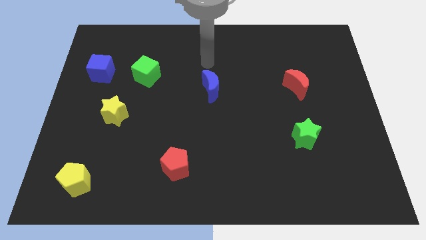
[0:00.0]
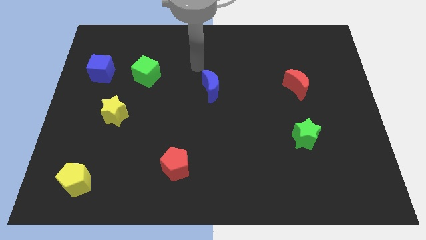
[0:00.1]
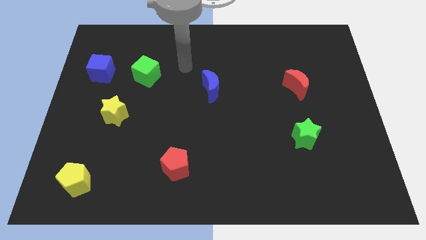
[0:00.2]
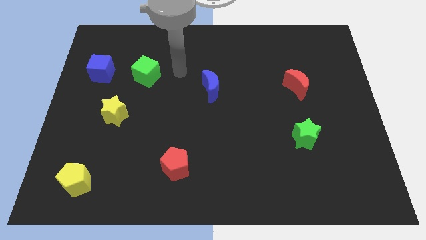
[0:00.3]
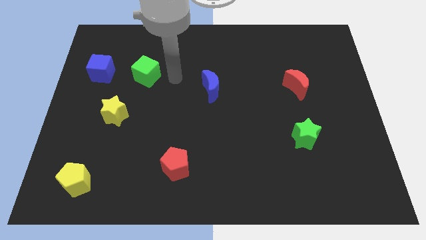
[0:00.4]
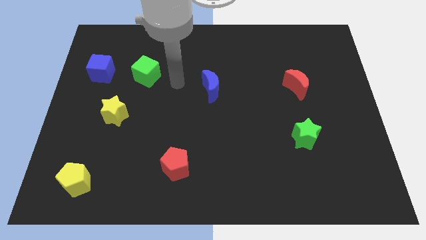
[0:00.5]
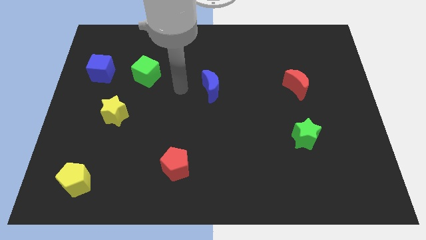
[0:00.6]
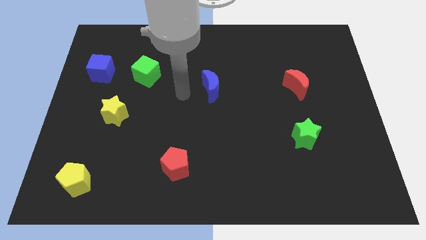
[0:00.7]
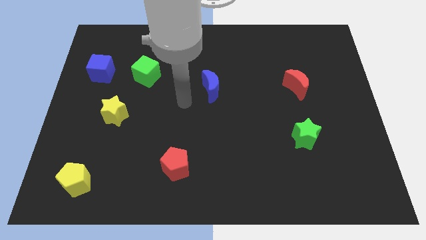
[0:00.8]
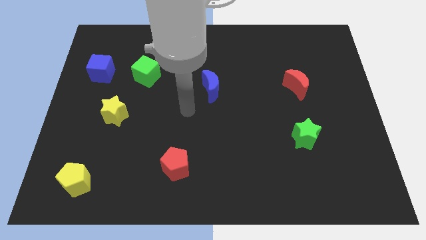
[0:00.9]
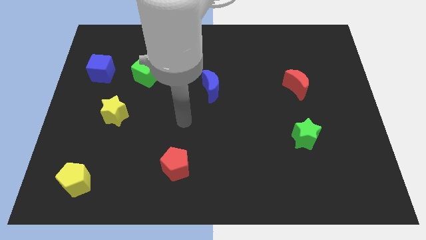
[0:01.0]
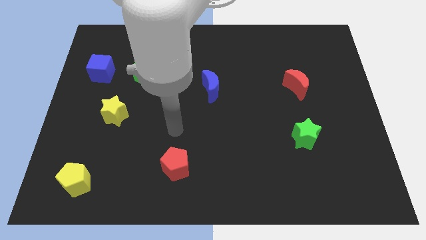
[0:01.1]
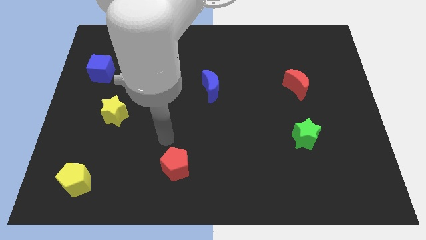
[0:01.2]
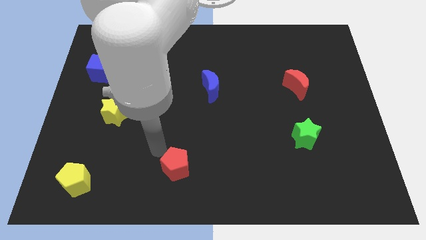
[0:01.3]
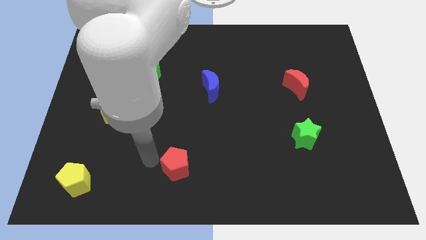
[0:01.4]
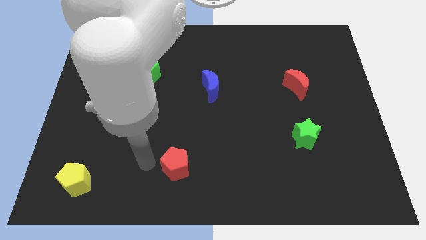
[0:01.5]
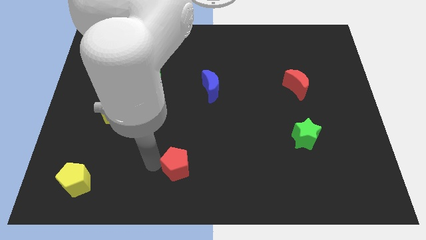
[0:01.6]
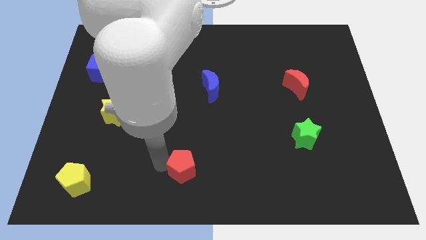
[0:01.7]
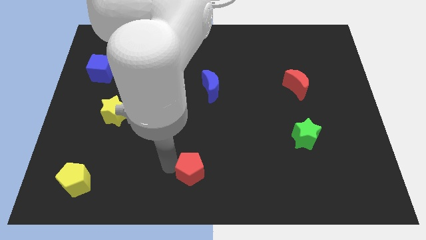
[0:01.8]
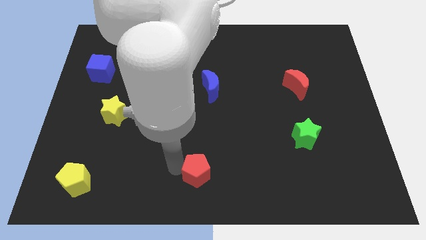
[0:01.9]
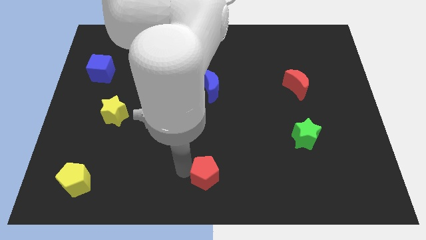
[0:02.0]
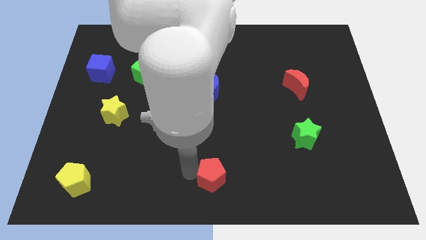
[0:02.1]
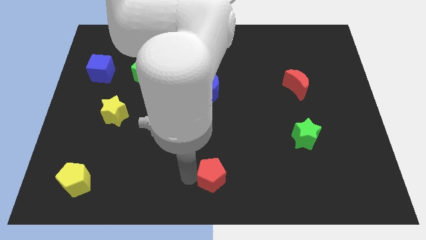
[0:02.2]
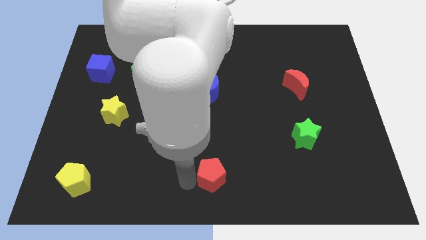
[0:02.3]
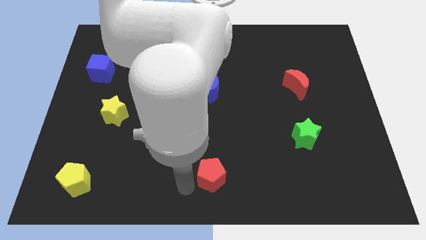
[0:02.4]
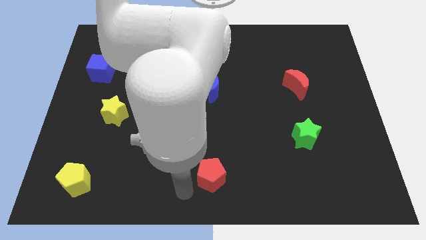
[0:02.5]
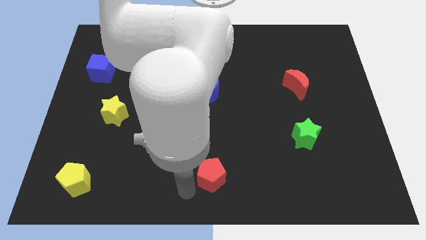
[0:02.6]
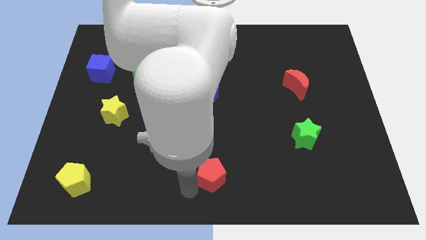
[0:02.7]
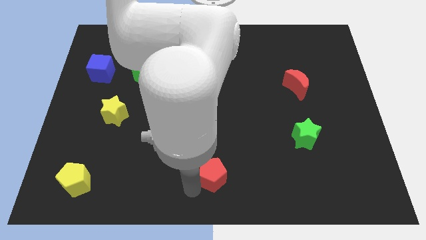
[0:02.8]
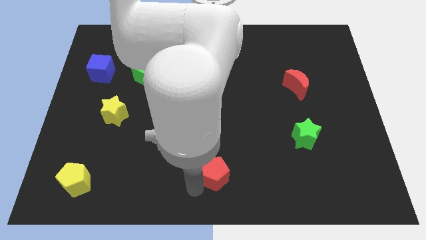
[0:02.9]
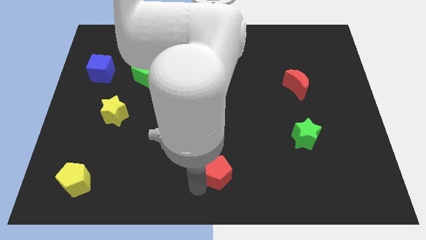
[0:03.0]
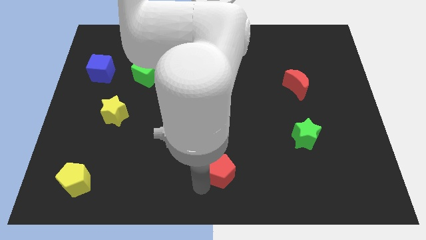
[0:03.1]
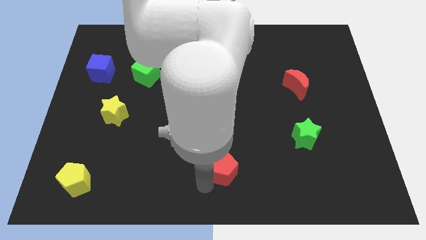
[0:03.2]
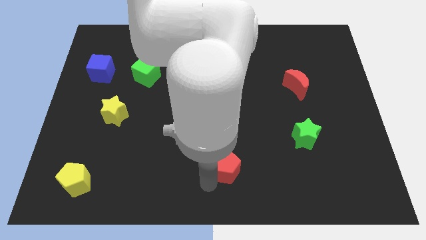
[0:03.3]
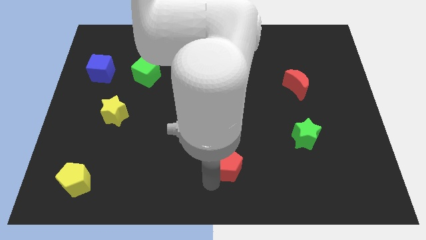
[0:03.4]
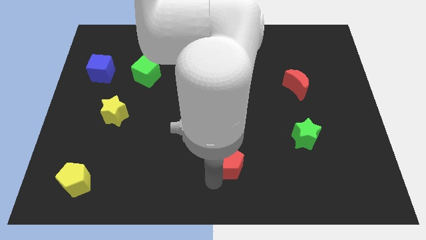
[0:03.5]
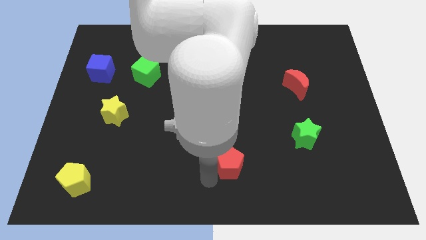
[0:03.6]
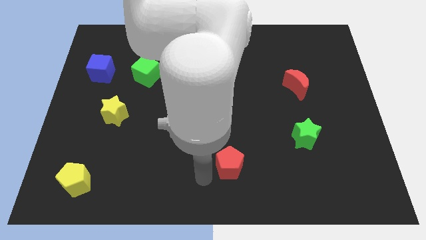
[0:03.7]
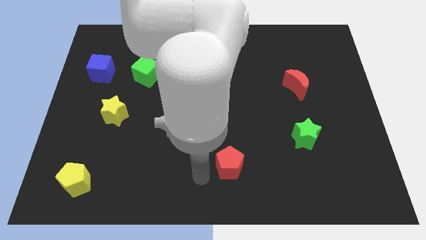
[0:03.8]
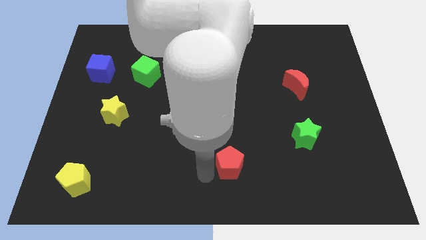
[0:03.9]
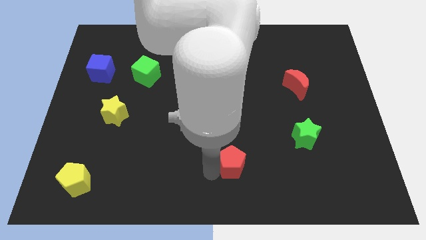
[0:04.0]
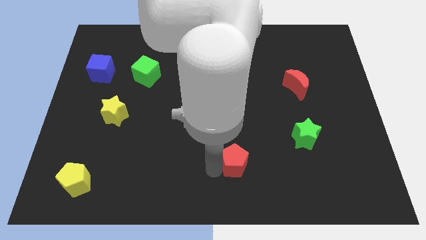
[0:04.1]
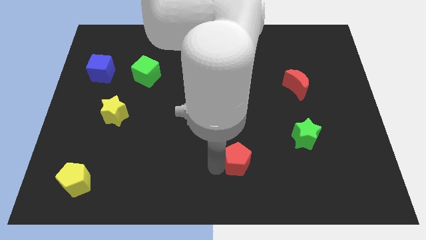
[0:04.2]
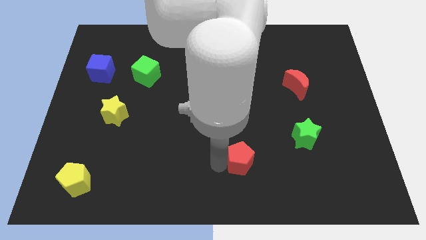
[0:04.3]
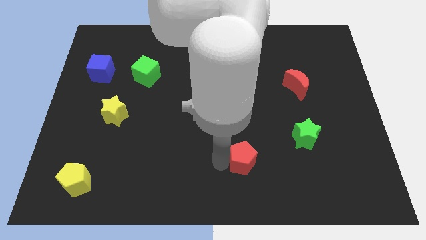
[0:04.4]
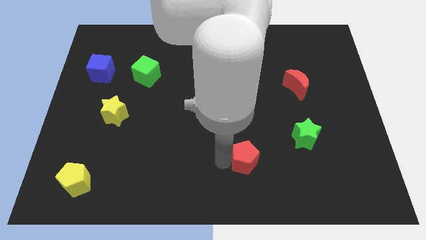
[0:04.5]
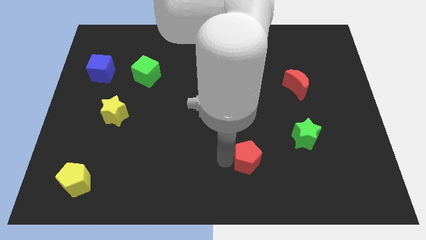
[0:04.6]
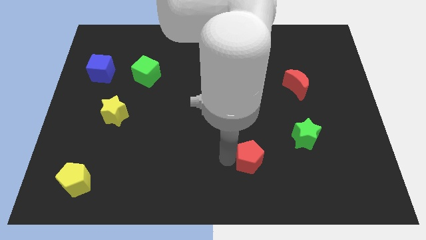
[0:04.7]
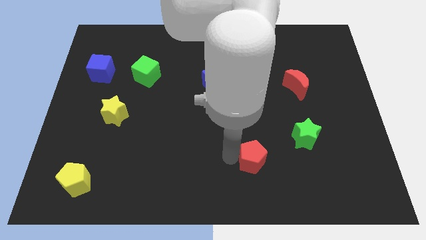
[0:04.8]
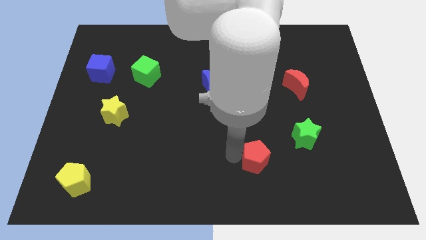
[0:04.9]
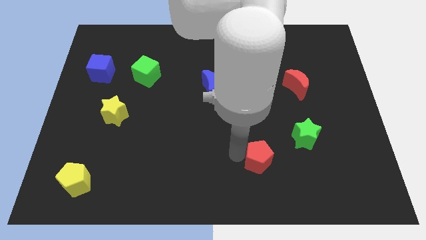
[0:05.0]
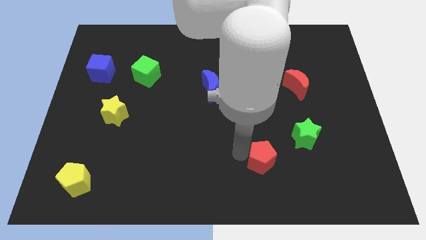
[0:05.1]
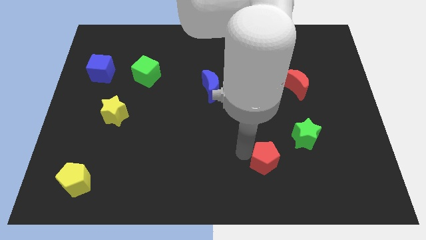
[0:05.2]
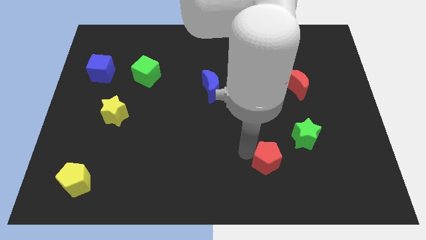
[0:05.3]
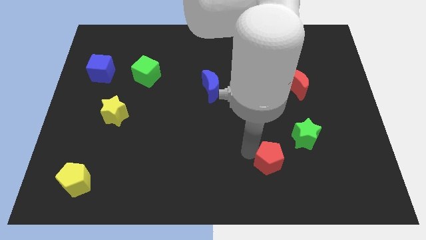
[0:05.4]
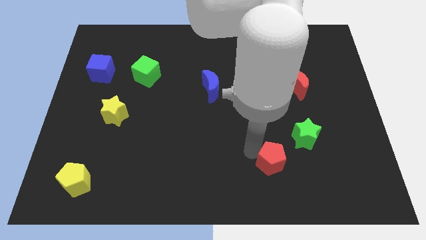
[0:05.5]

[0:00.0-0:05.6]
push the red pentagon to the right

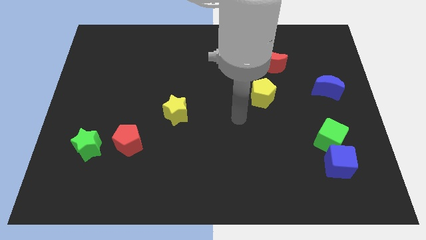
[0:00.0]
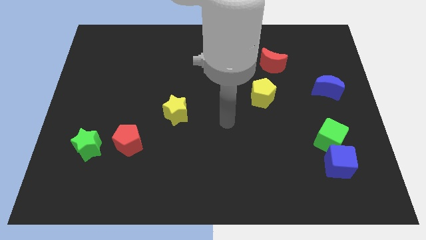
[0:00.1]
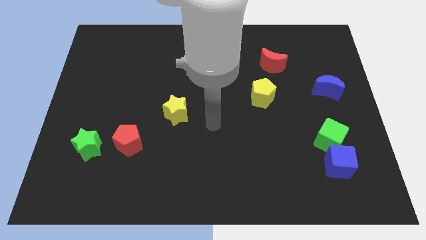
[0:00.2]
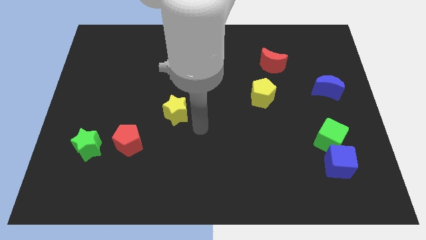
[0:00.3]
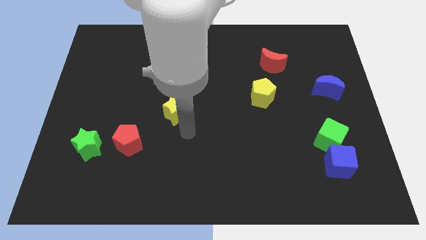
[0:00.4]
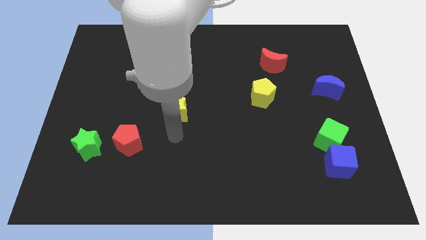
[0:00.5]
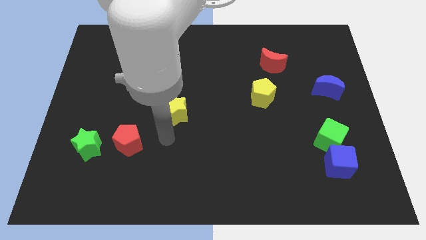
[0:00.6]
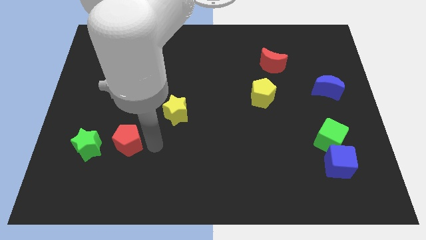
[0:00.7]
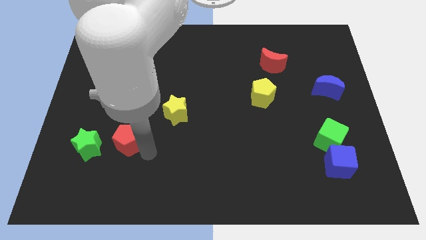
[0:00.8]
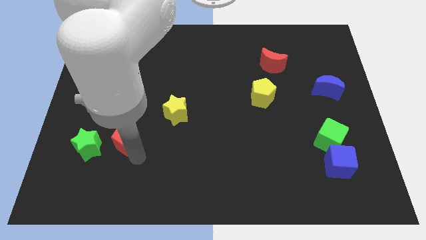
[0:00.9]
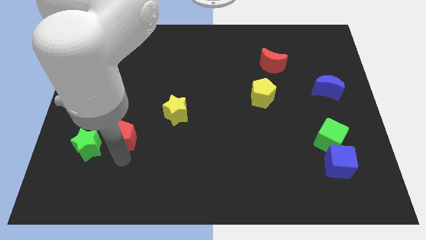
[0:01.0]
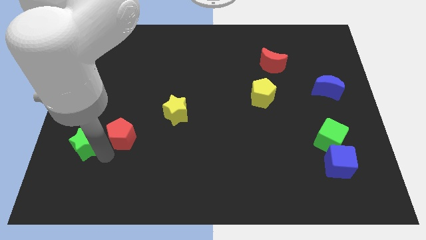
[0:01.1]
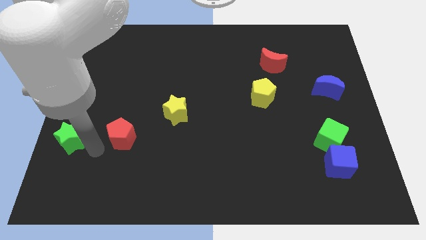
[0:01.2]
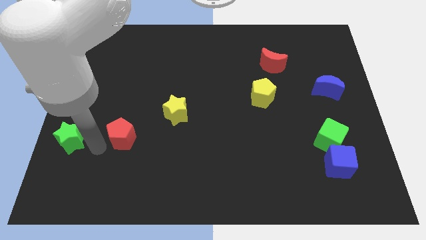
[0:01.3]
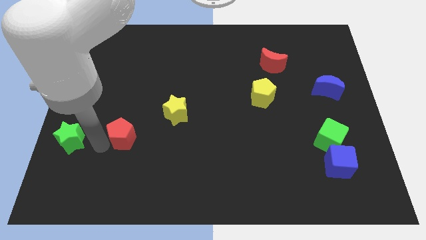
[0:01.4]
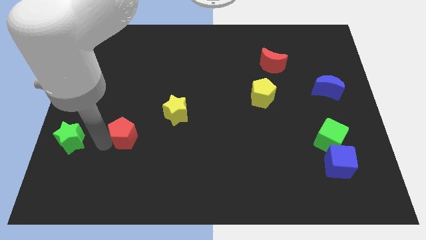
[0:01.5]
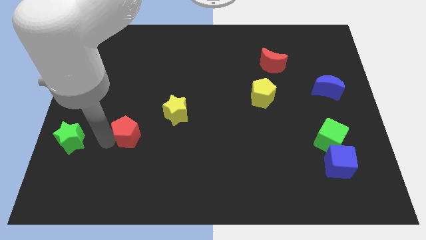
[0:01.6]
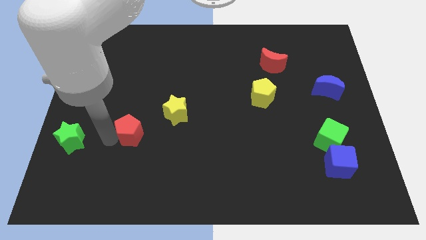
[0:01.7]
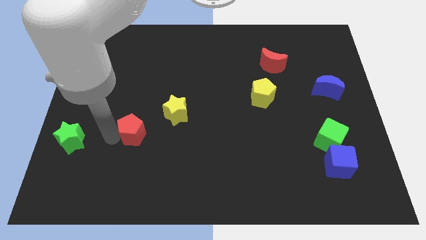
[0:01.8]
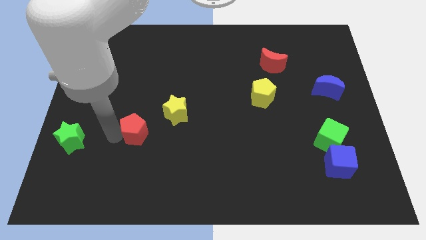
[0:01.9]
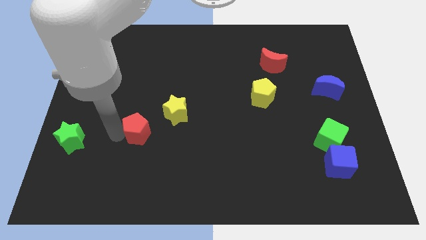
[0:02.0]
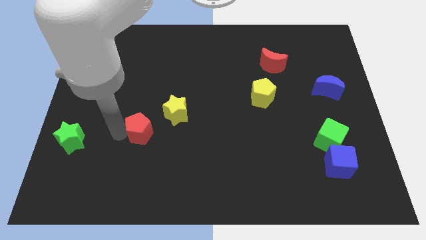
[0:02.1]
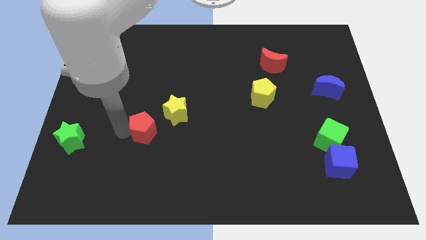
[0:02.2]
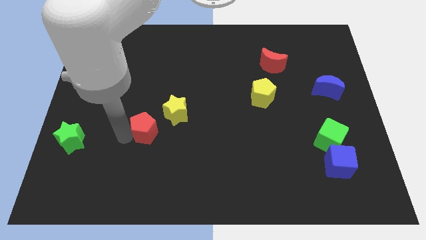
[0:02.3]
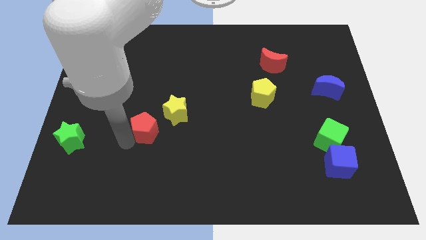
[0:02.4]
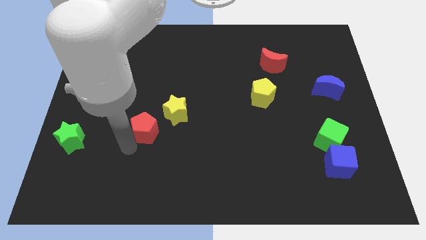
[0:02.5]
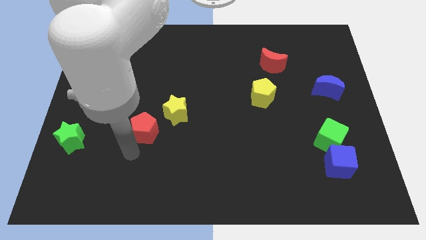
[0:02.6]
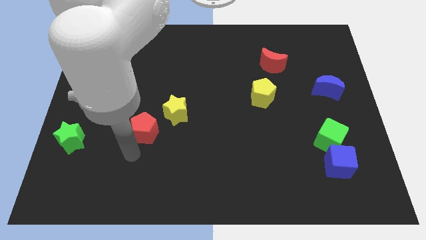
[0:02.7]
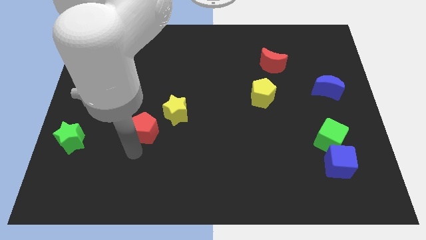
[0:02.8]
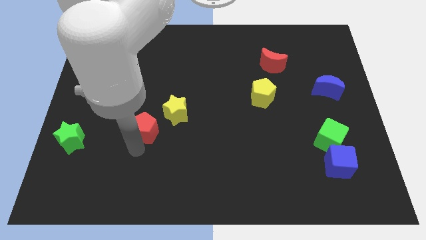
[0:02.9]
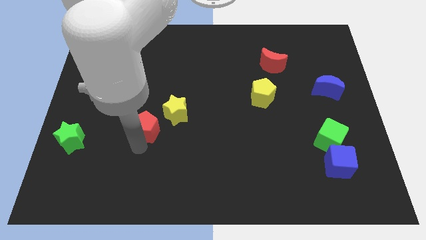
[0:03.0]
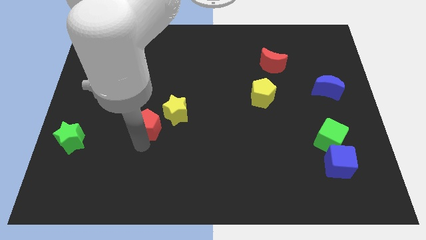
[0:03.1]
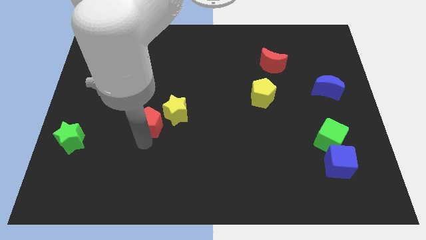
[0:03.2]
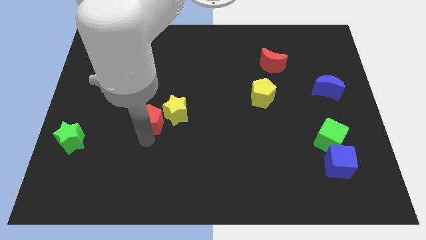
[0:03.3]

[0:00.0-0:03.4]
slightly move the red pentagon diagonally up and right
